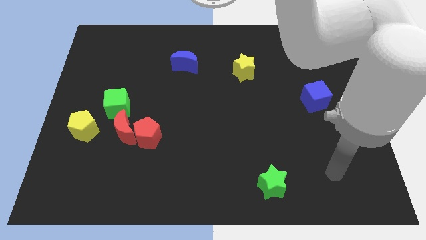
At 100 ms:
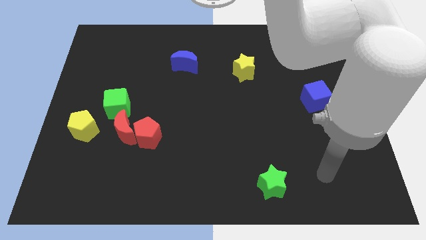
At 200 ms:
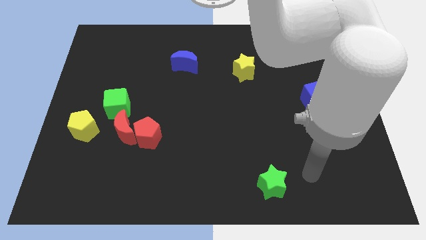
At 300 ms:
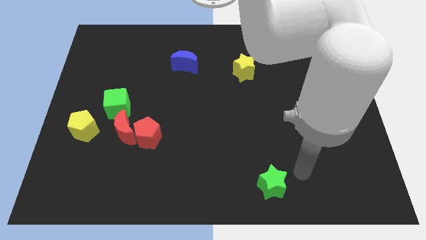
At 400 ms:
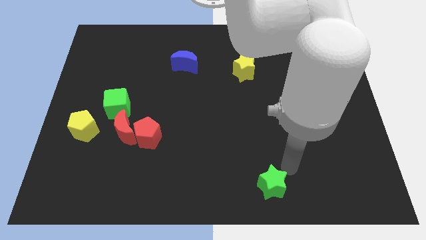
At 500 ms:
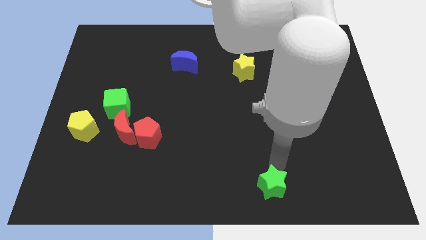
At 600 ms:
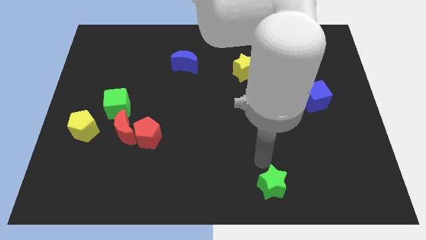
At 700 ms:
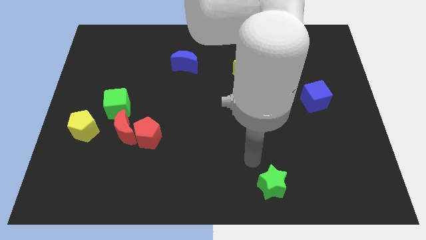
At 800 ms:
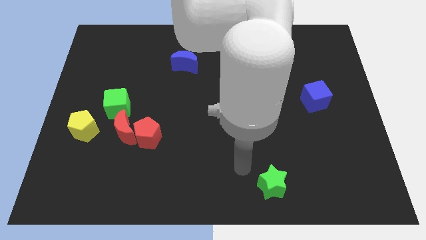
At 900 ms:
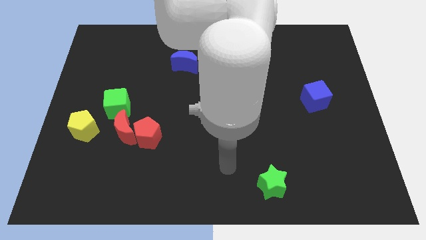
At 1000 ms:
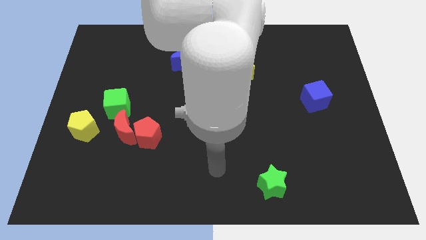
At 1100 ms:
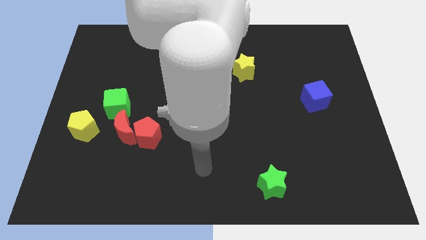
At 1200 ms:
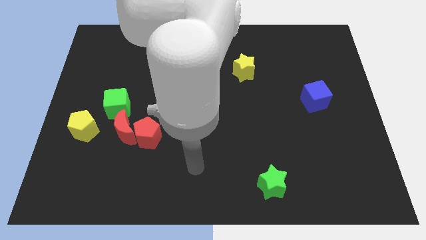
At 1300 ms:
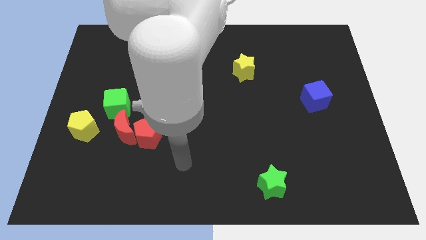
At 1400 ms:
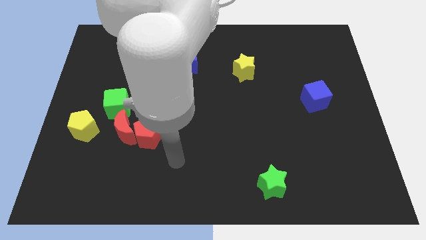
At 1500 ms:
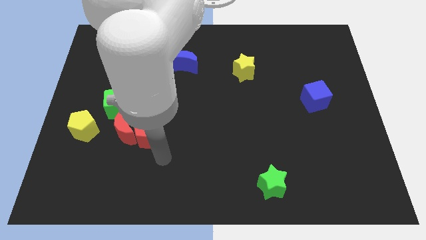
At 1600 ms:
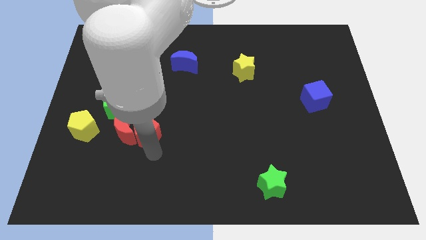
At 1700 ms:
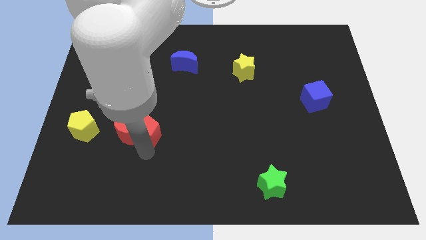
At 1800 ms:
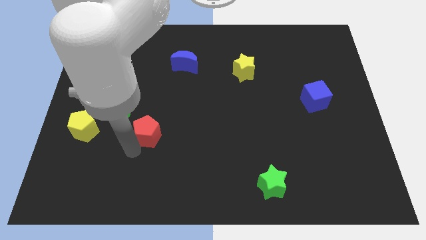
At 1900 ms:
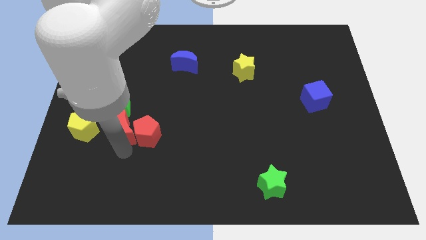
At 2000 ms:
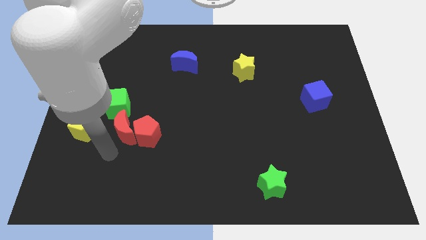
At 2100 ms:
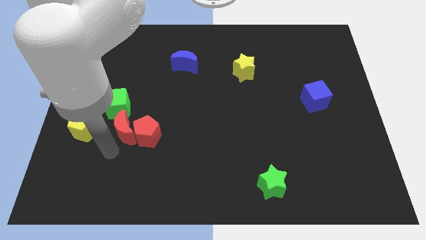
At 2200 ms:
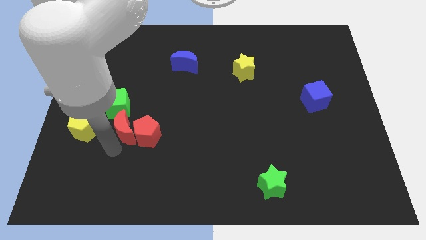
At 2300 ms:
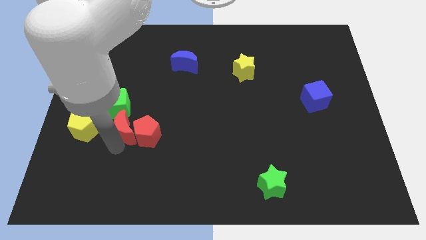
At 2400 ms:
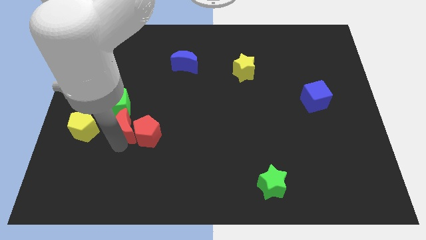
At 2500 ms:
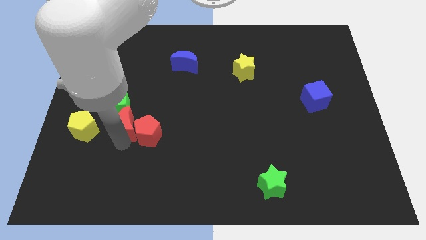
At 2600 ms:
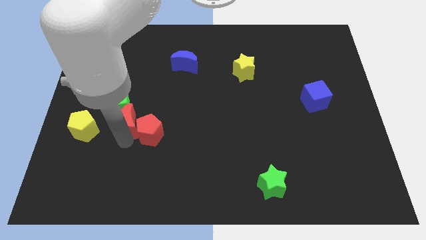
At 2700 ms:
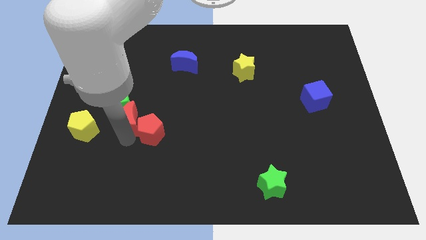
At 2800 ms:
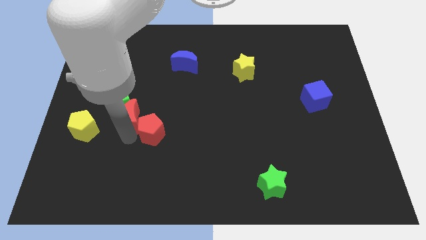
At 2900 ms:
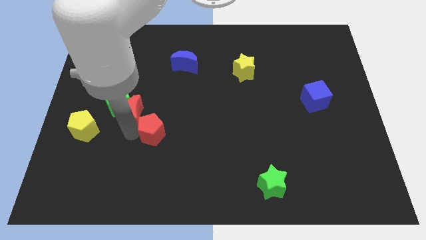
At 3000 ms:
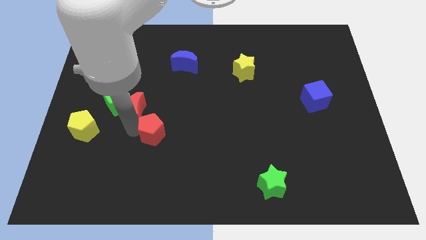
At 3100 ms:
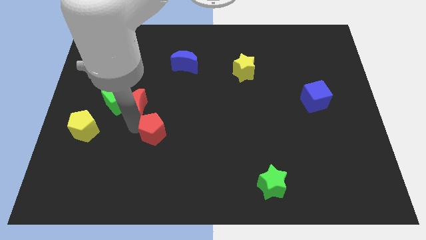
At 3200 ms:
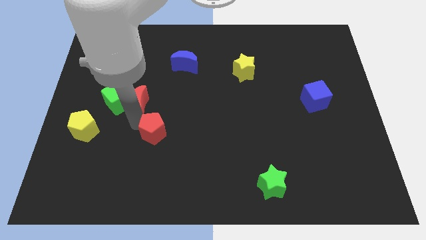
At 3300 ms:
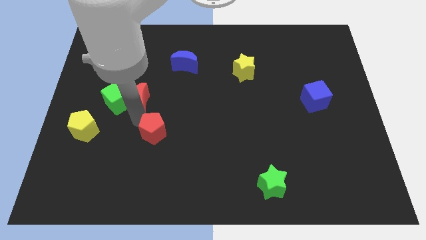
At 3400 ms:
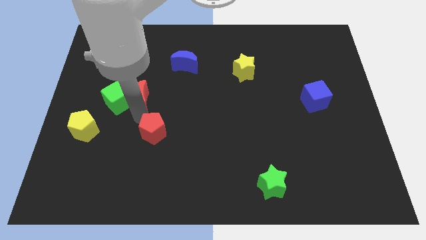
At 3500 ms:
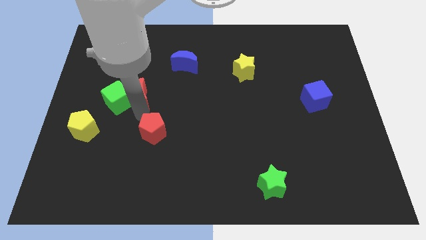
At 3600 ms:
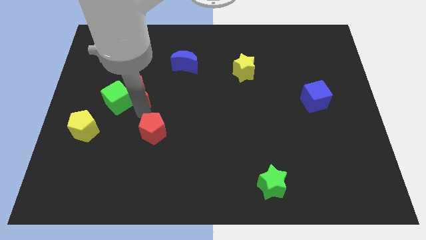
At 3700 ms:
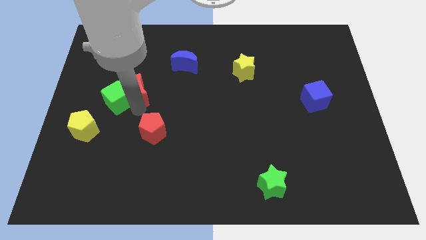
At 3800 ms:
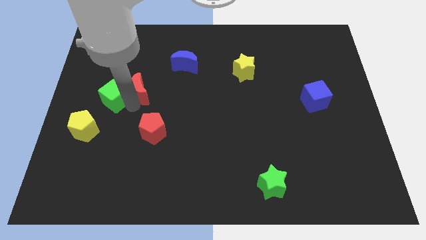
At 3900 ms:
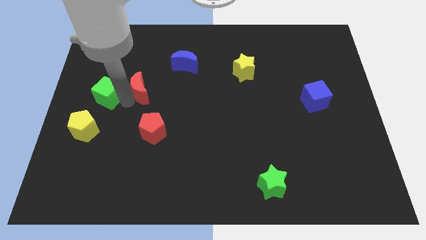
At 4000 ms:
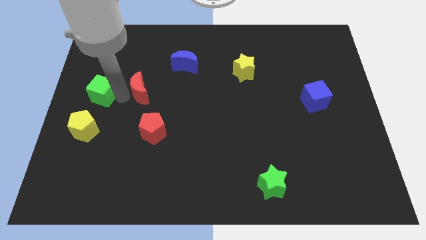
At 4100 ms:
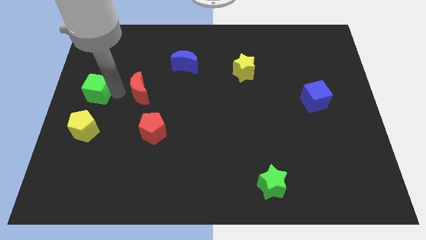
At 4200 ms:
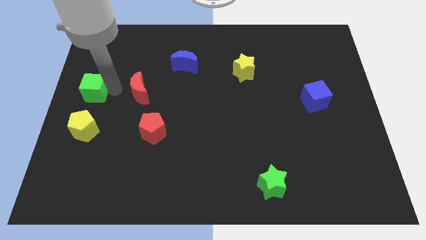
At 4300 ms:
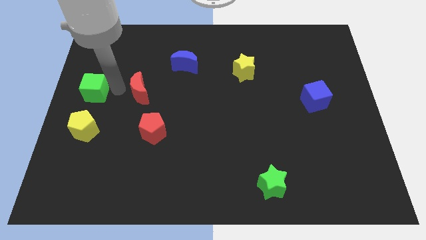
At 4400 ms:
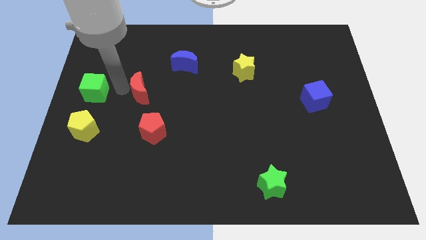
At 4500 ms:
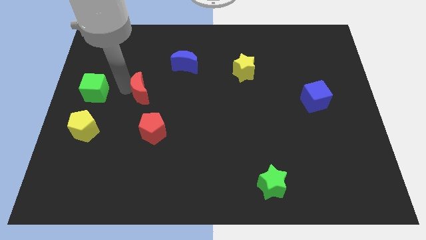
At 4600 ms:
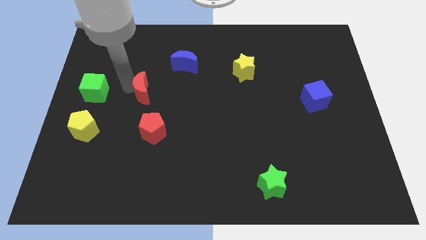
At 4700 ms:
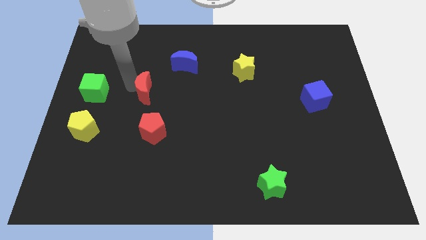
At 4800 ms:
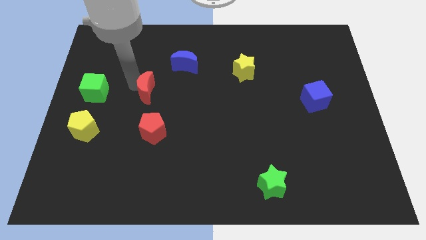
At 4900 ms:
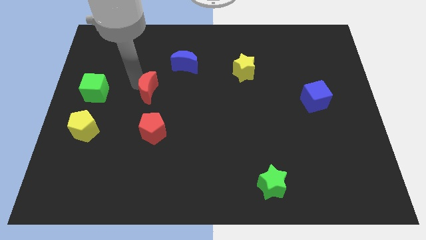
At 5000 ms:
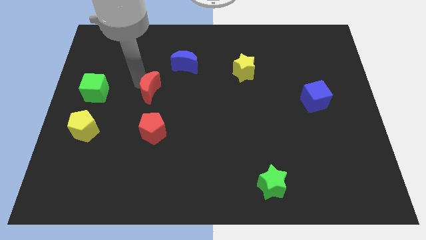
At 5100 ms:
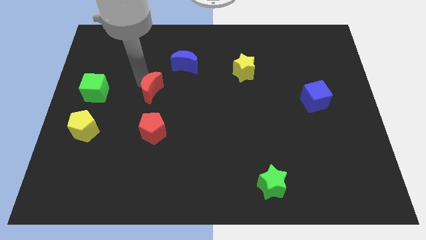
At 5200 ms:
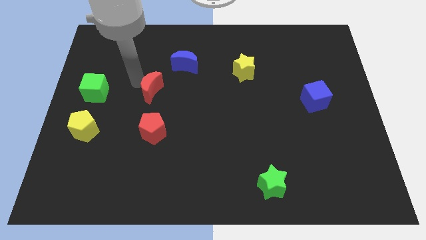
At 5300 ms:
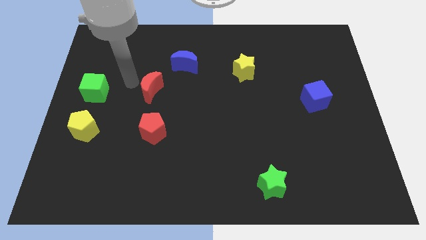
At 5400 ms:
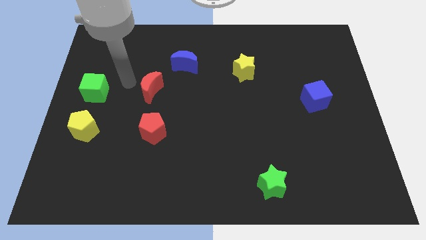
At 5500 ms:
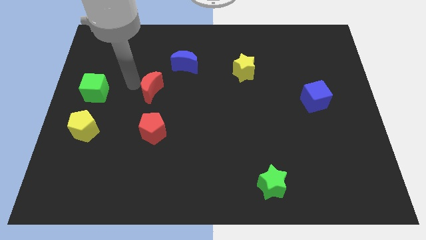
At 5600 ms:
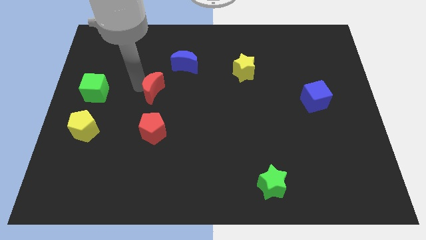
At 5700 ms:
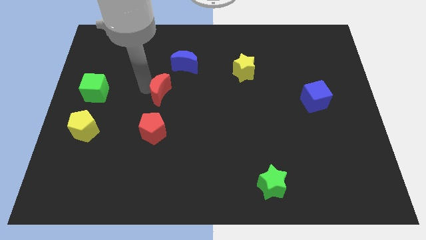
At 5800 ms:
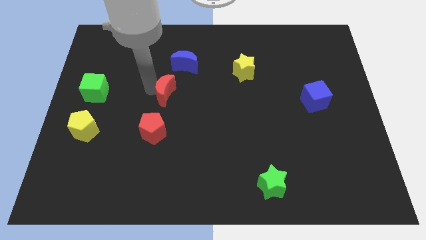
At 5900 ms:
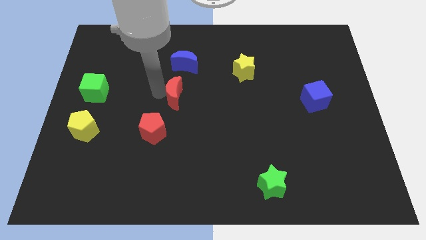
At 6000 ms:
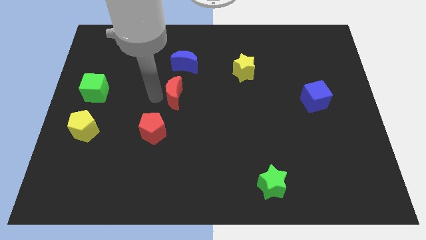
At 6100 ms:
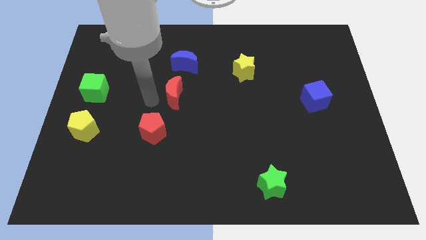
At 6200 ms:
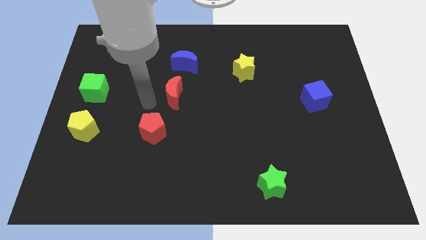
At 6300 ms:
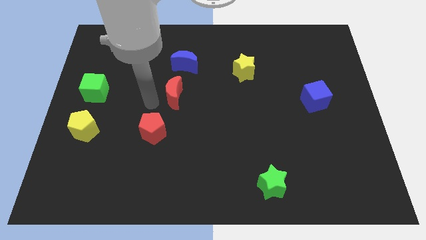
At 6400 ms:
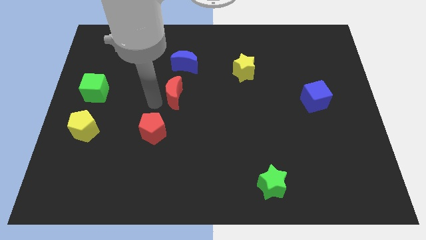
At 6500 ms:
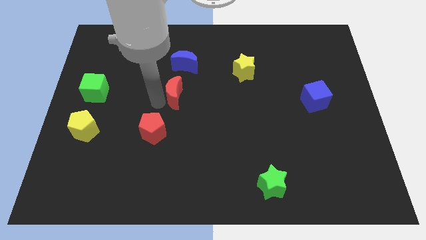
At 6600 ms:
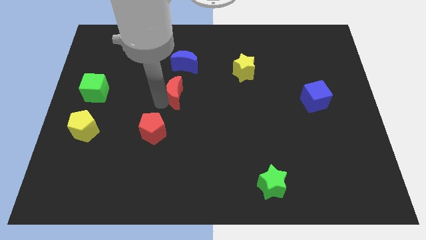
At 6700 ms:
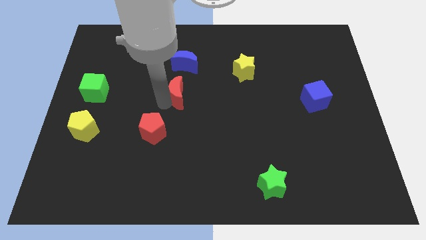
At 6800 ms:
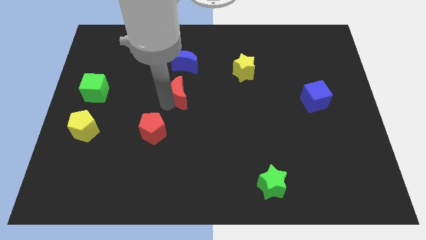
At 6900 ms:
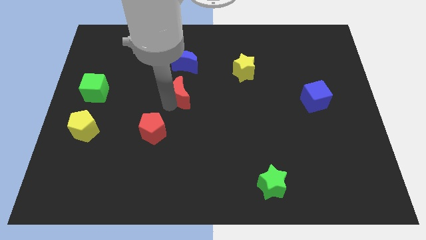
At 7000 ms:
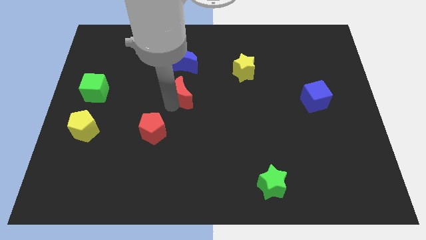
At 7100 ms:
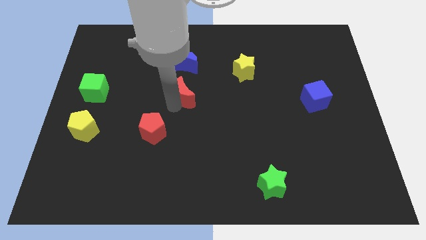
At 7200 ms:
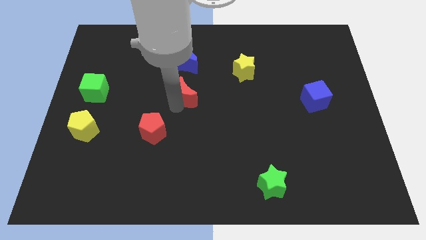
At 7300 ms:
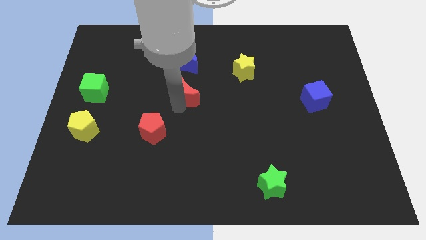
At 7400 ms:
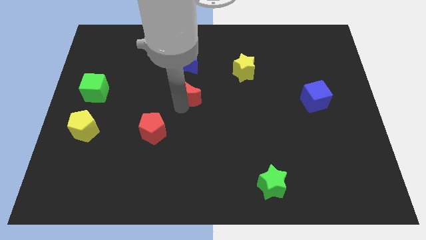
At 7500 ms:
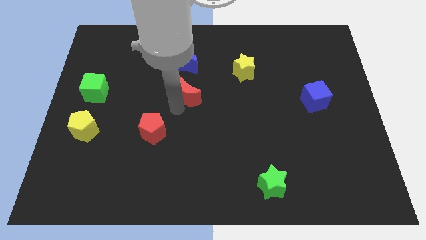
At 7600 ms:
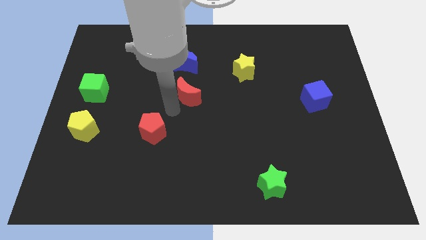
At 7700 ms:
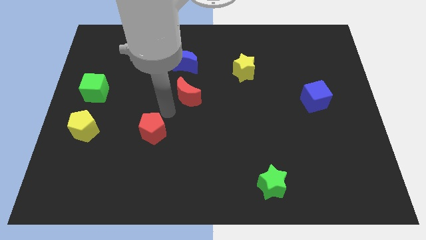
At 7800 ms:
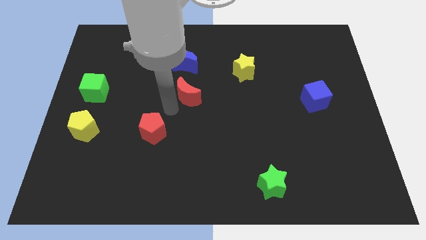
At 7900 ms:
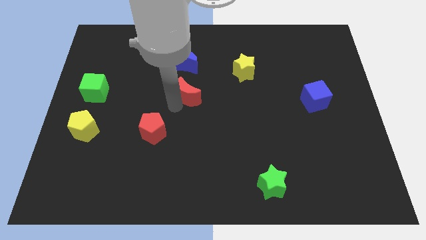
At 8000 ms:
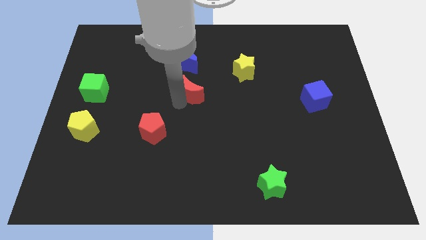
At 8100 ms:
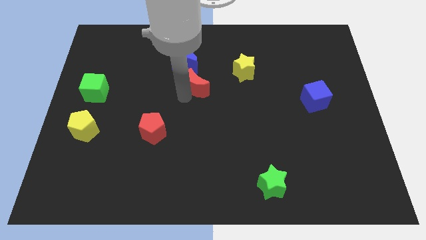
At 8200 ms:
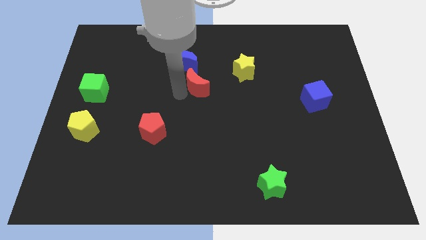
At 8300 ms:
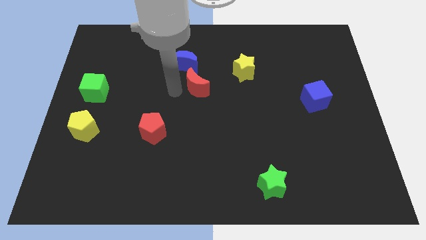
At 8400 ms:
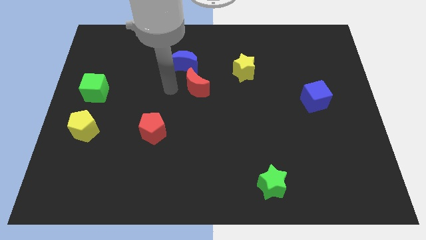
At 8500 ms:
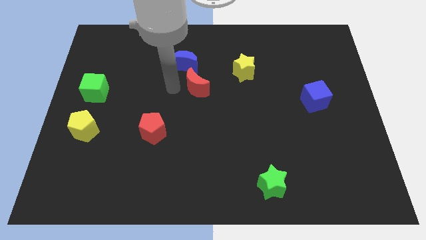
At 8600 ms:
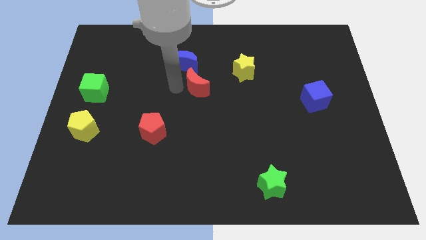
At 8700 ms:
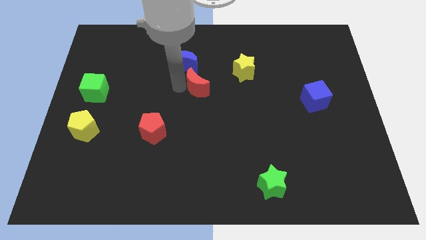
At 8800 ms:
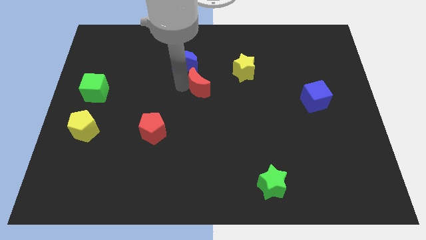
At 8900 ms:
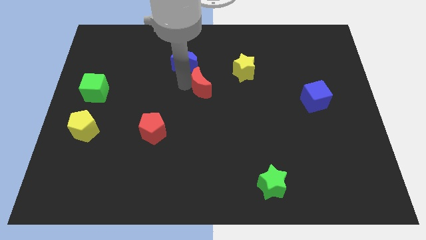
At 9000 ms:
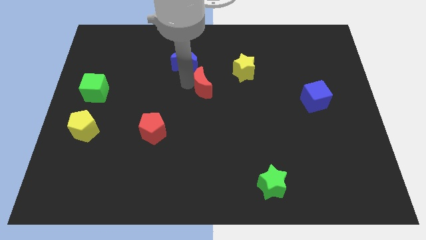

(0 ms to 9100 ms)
put the red moon to the bottom left of the yellow star
